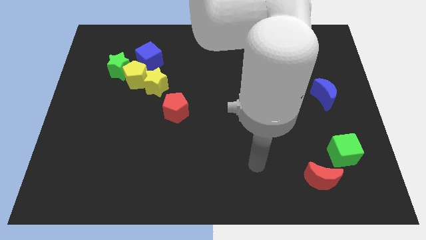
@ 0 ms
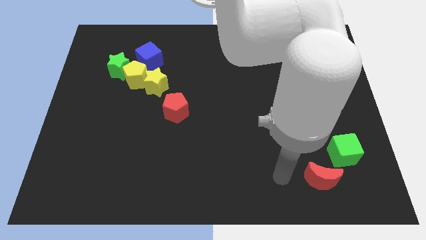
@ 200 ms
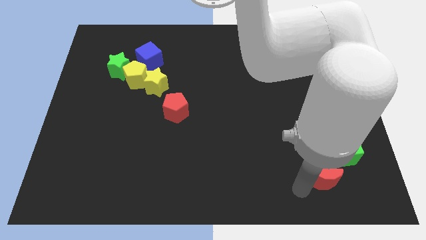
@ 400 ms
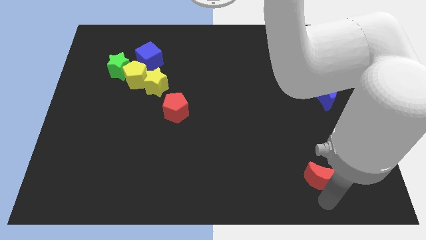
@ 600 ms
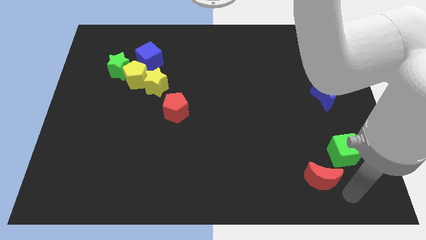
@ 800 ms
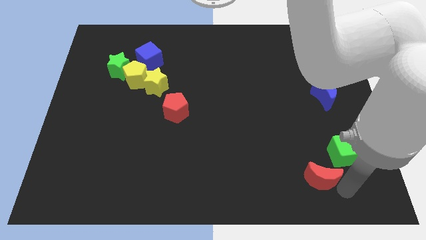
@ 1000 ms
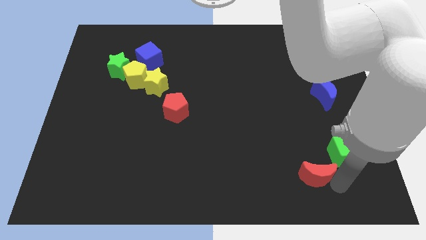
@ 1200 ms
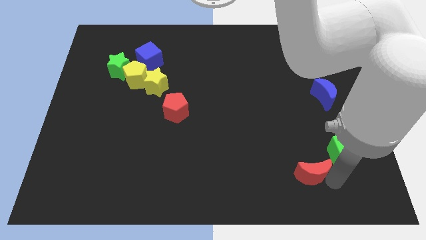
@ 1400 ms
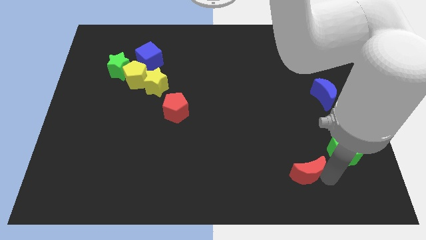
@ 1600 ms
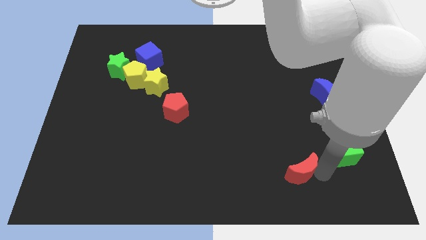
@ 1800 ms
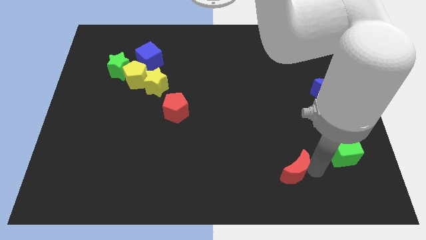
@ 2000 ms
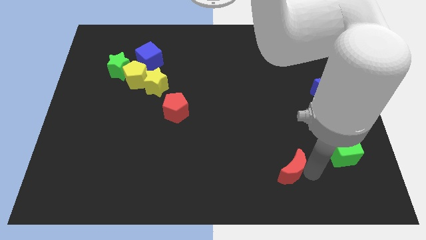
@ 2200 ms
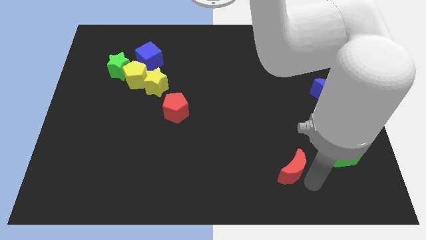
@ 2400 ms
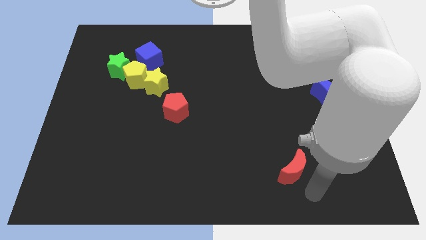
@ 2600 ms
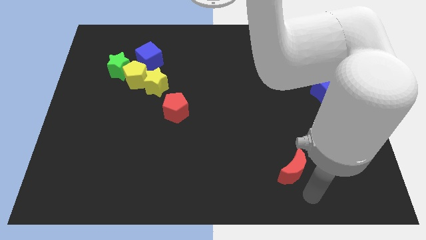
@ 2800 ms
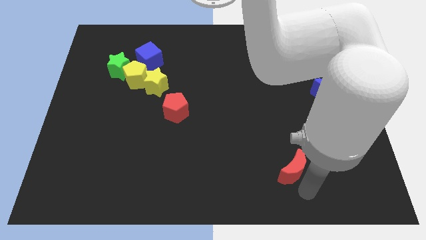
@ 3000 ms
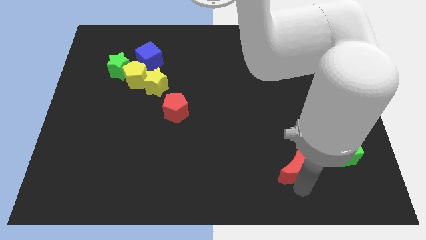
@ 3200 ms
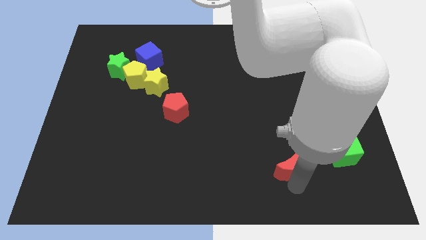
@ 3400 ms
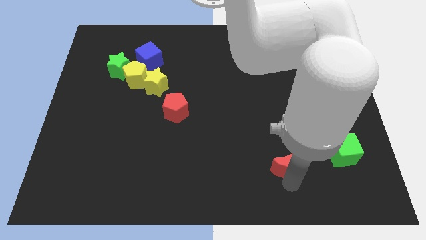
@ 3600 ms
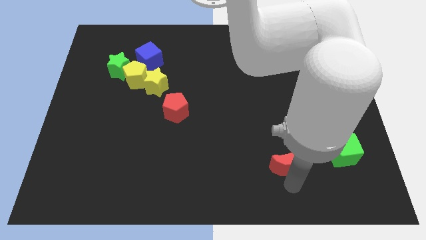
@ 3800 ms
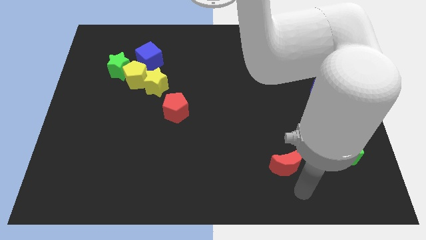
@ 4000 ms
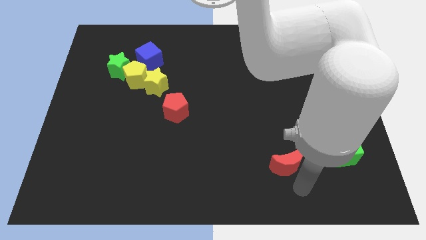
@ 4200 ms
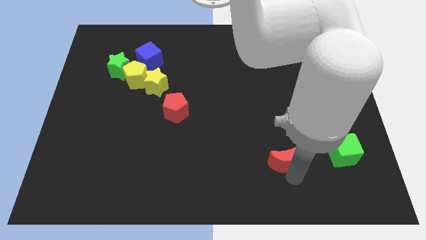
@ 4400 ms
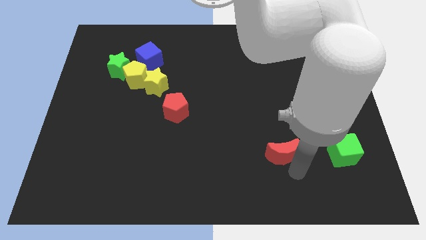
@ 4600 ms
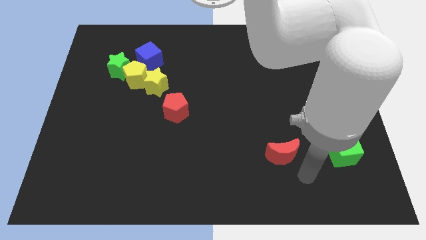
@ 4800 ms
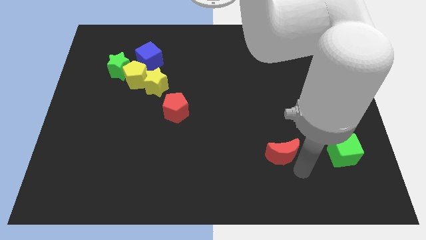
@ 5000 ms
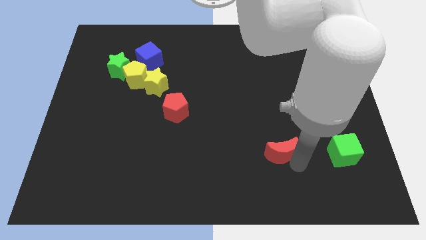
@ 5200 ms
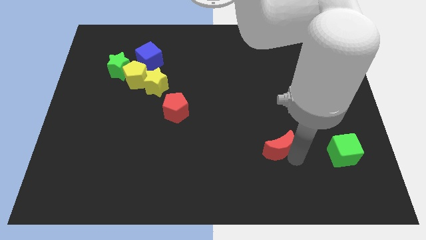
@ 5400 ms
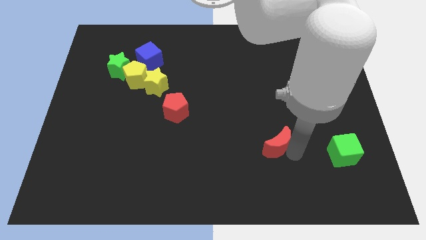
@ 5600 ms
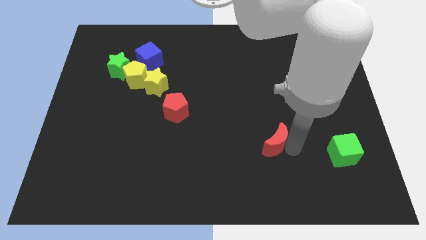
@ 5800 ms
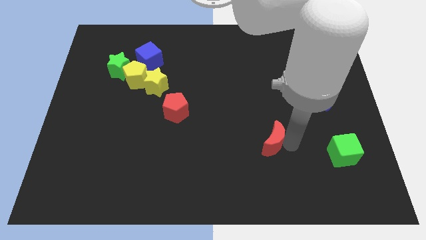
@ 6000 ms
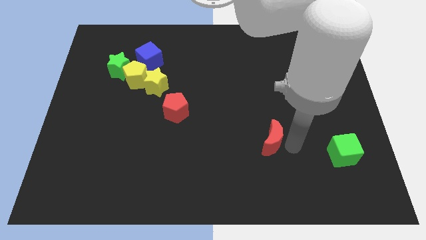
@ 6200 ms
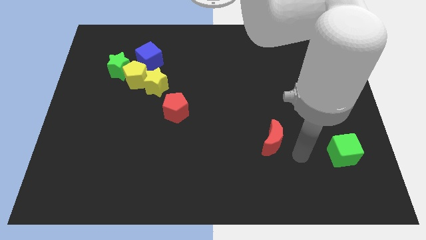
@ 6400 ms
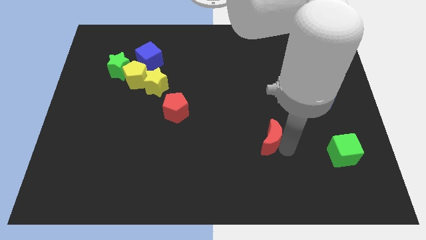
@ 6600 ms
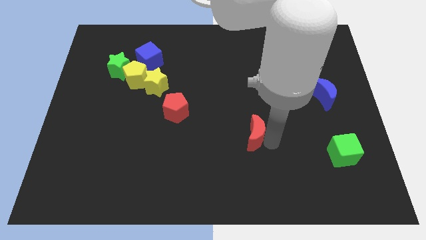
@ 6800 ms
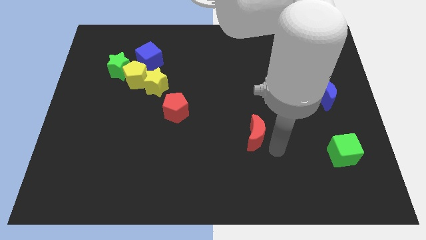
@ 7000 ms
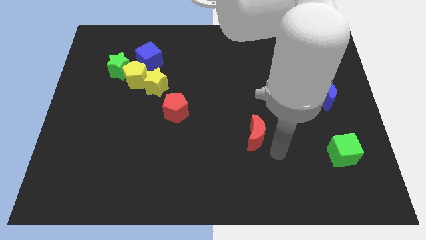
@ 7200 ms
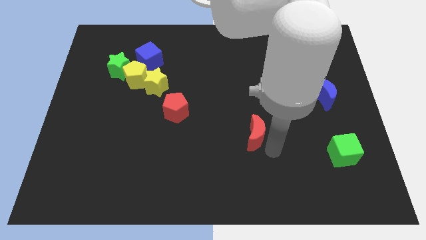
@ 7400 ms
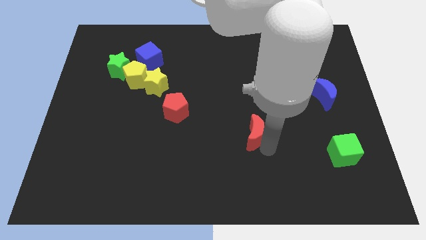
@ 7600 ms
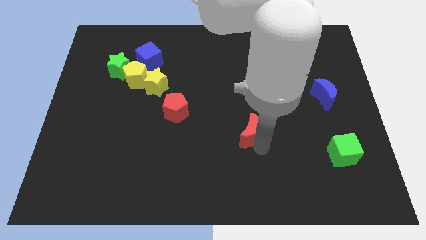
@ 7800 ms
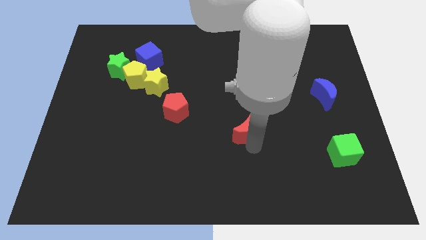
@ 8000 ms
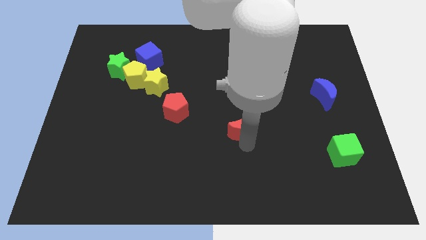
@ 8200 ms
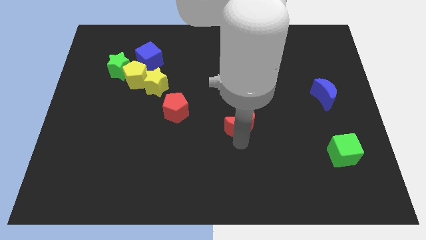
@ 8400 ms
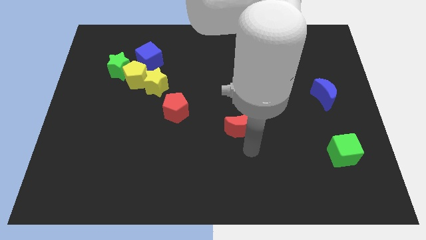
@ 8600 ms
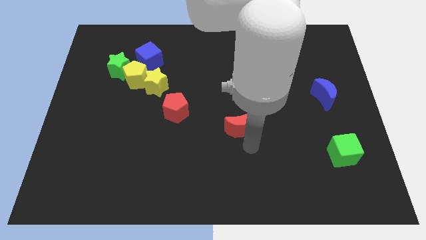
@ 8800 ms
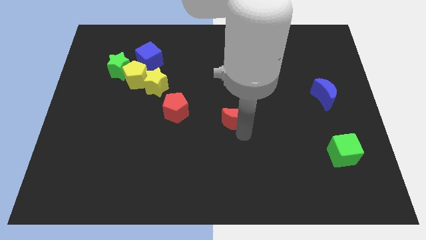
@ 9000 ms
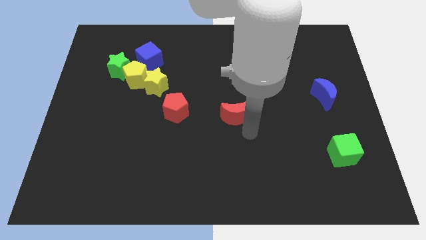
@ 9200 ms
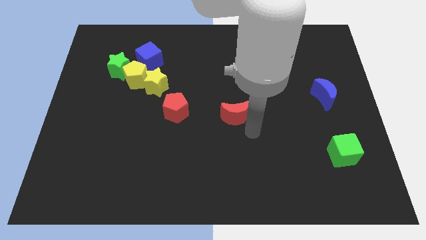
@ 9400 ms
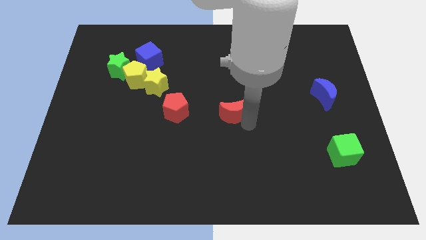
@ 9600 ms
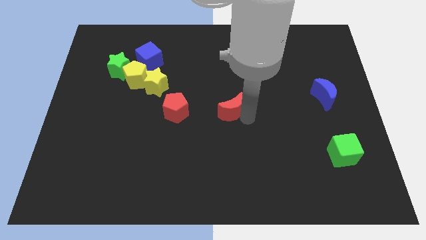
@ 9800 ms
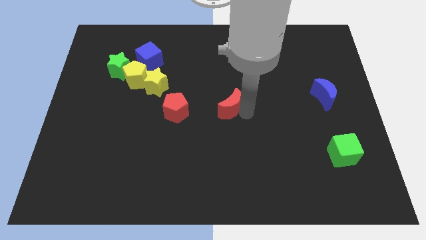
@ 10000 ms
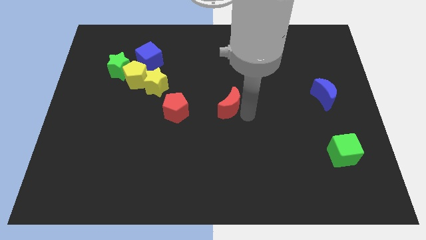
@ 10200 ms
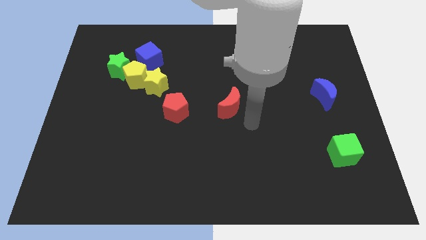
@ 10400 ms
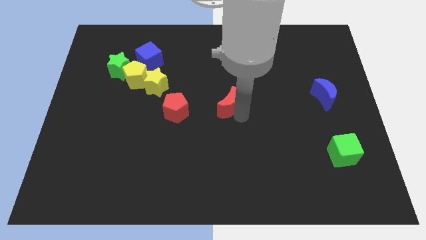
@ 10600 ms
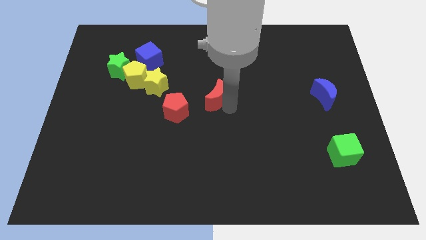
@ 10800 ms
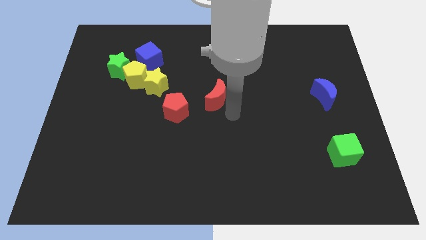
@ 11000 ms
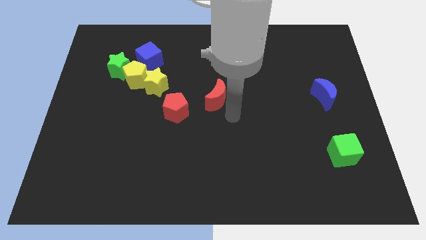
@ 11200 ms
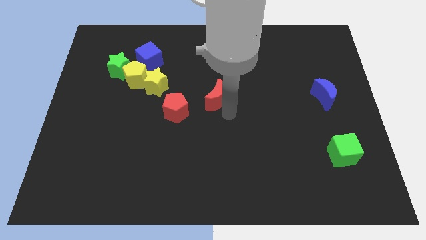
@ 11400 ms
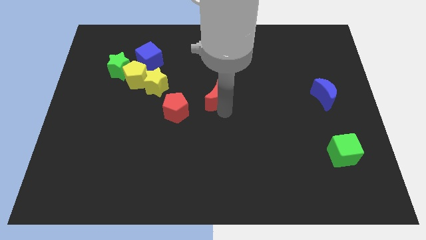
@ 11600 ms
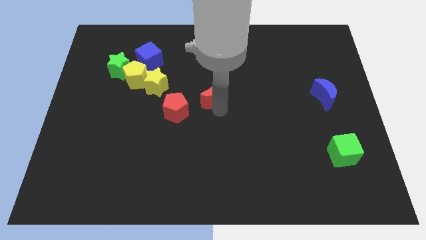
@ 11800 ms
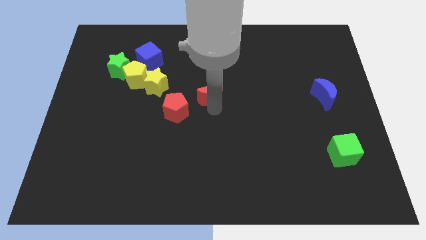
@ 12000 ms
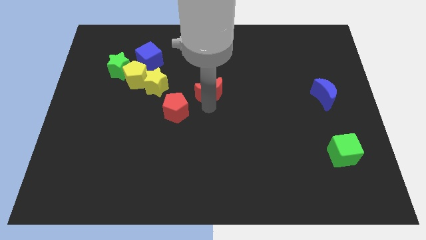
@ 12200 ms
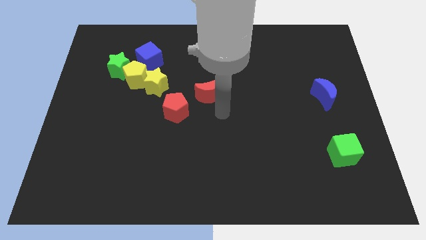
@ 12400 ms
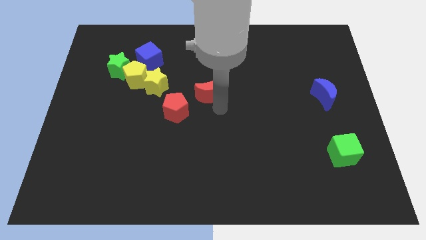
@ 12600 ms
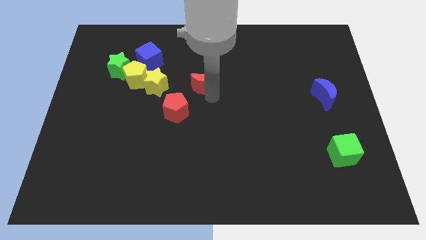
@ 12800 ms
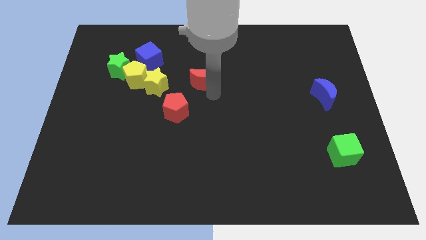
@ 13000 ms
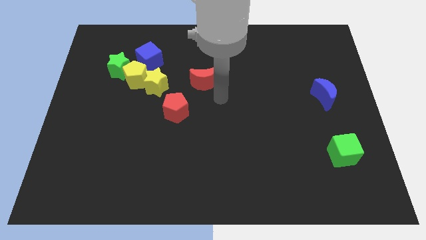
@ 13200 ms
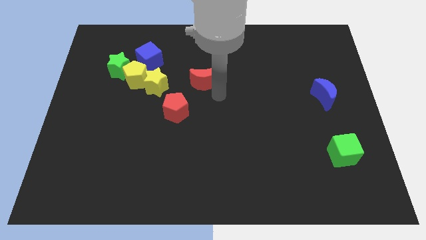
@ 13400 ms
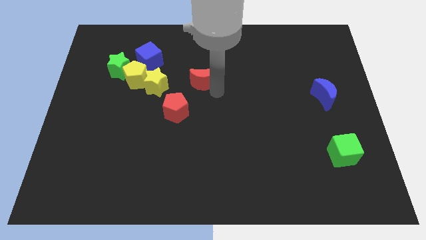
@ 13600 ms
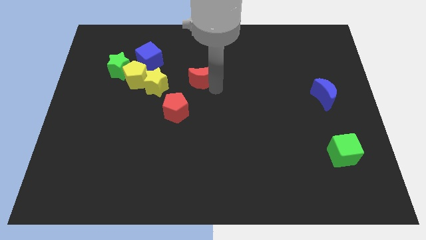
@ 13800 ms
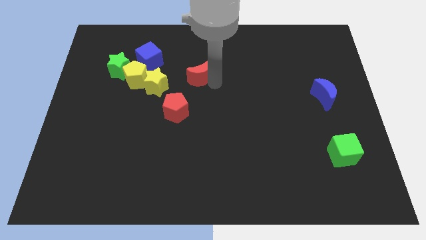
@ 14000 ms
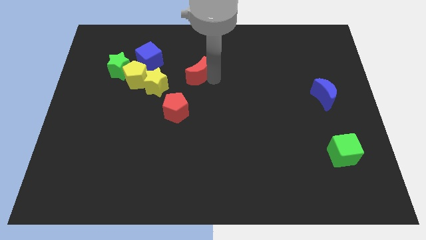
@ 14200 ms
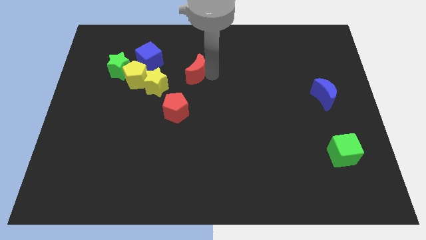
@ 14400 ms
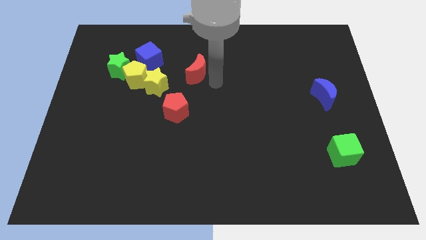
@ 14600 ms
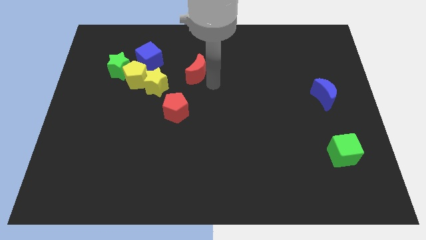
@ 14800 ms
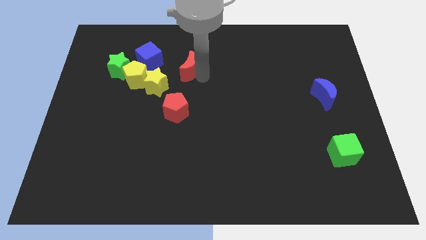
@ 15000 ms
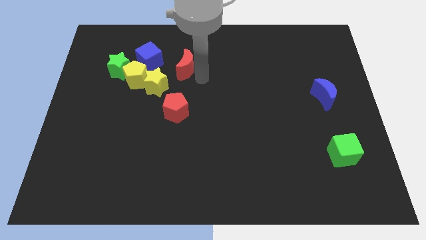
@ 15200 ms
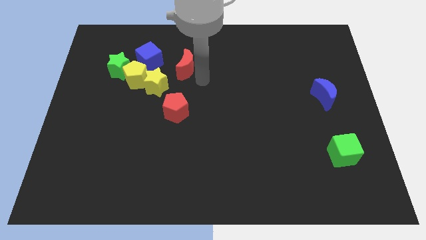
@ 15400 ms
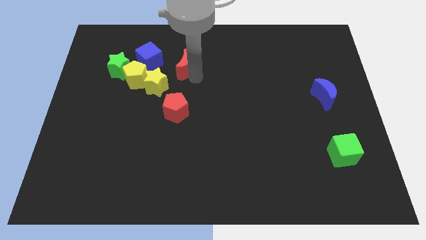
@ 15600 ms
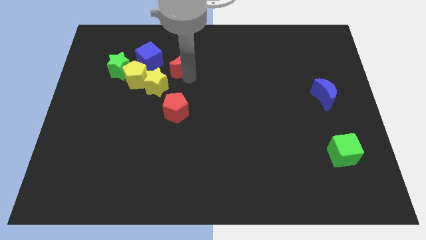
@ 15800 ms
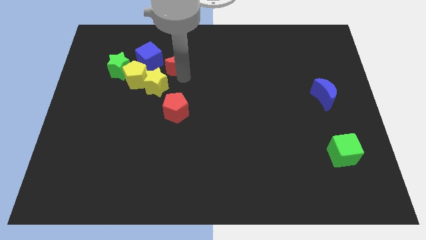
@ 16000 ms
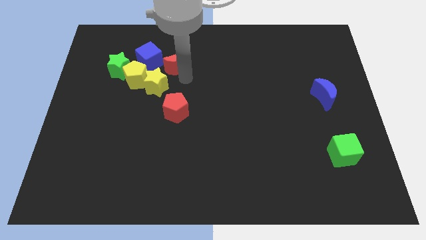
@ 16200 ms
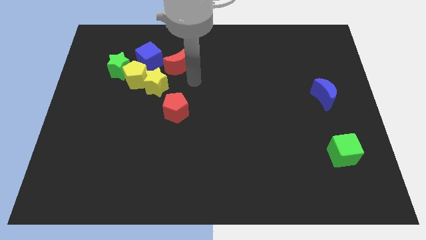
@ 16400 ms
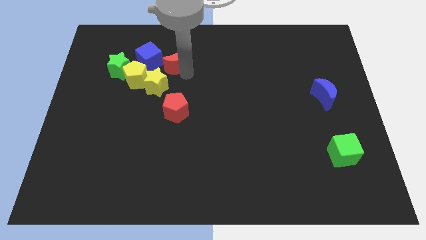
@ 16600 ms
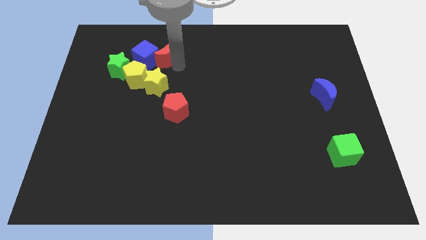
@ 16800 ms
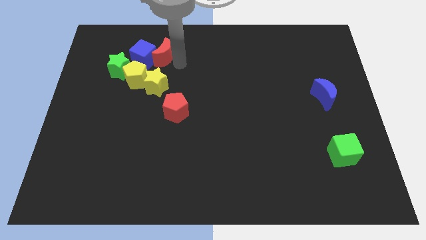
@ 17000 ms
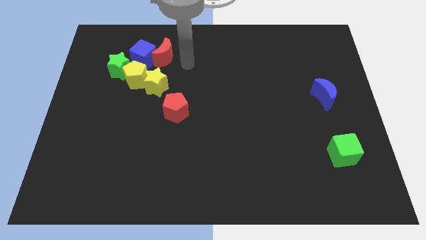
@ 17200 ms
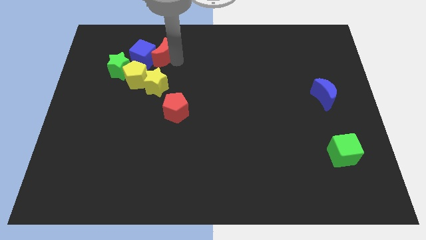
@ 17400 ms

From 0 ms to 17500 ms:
push the red moon to the top right side of the green star

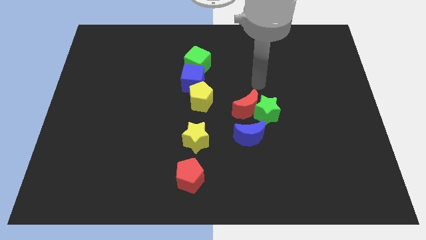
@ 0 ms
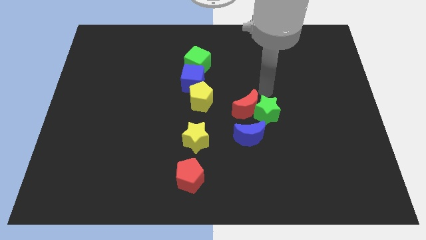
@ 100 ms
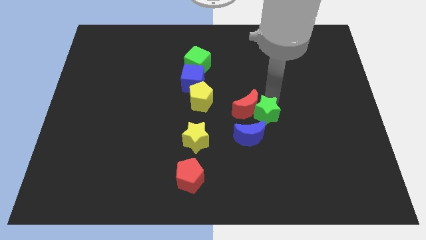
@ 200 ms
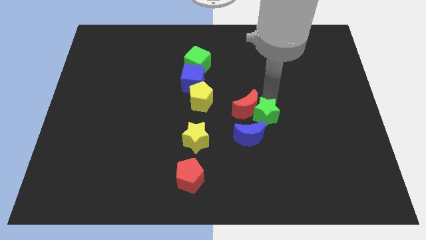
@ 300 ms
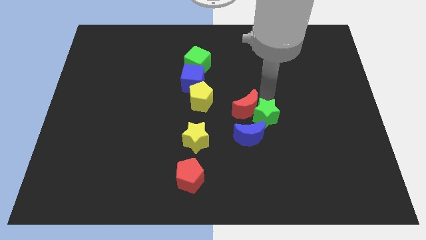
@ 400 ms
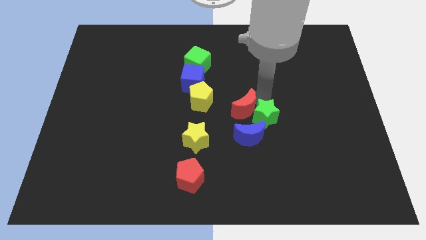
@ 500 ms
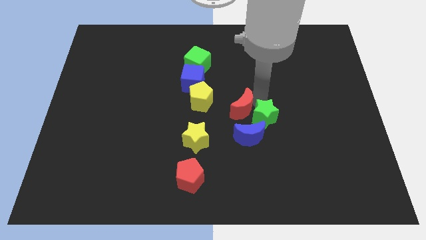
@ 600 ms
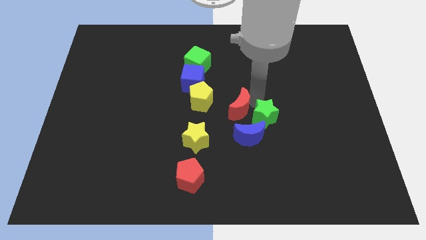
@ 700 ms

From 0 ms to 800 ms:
slide the red moon diagonally down and to the right of the yellow pentagon
